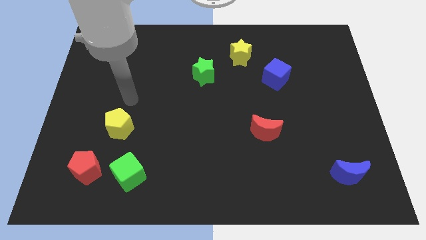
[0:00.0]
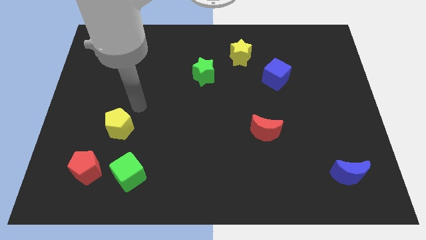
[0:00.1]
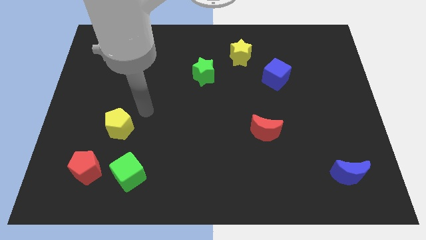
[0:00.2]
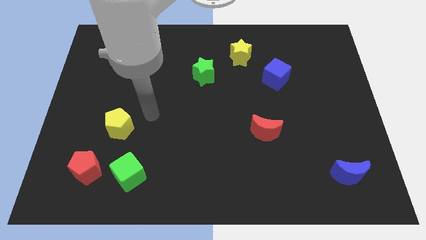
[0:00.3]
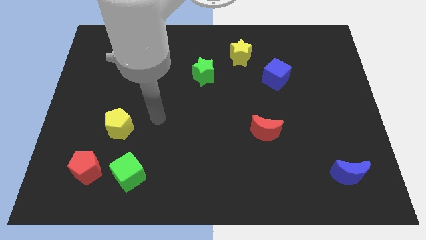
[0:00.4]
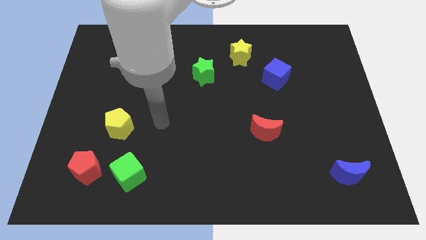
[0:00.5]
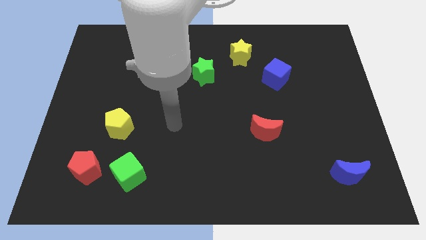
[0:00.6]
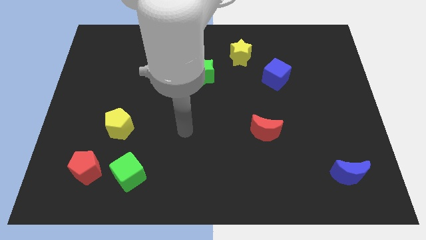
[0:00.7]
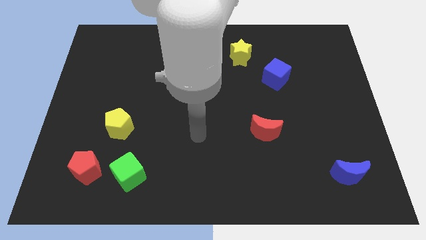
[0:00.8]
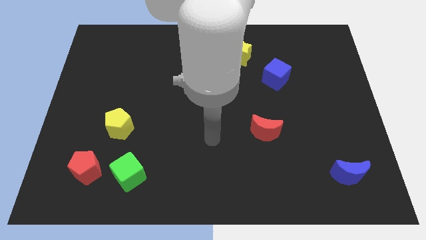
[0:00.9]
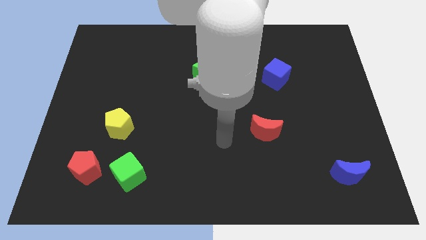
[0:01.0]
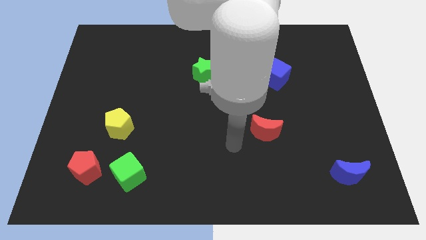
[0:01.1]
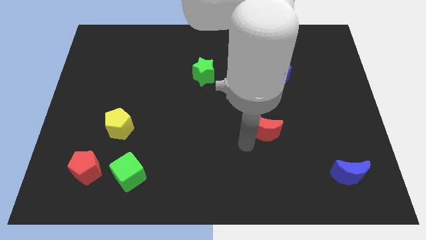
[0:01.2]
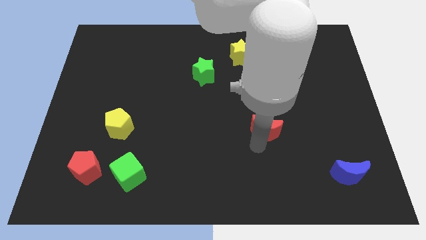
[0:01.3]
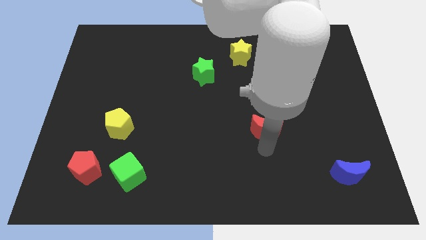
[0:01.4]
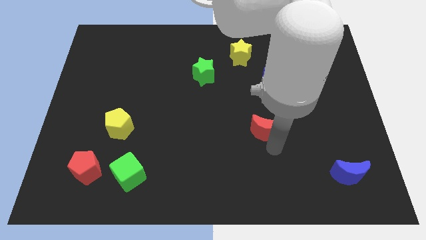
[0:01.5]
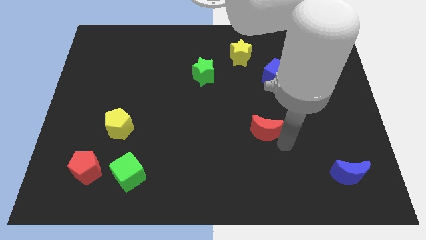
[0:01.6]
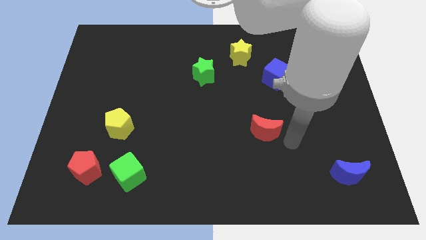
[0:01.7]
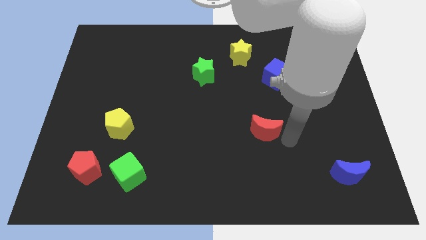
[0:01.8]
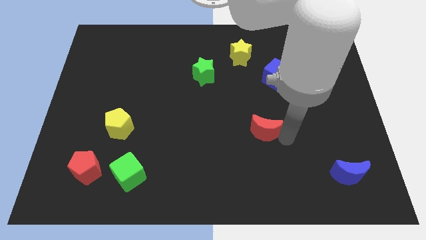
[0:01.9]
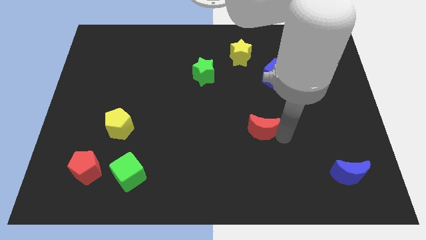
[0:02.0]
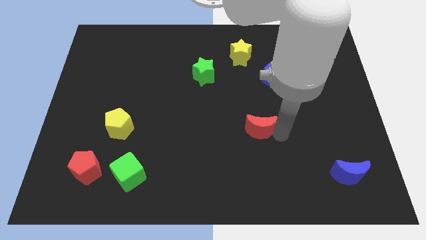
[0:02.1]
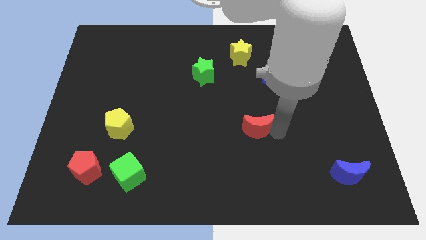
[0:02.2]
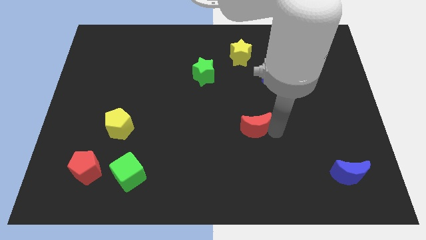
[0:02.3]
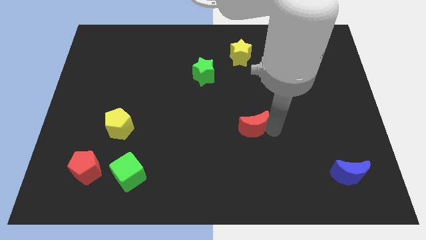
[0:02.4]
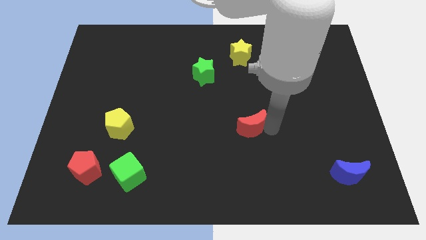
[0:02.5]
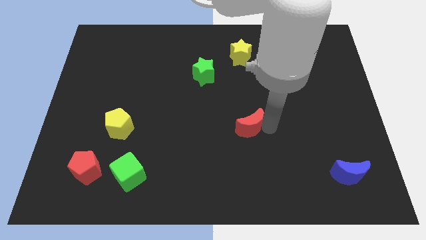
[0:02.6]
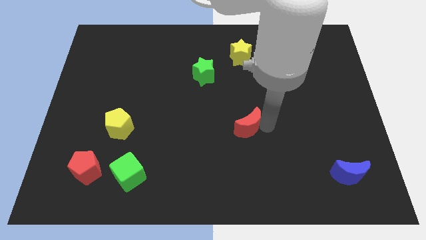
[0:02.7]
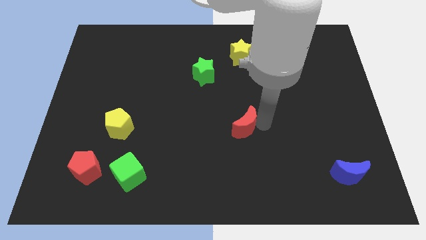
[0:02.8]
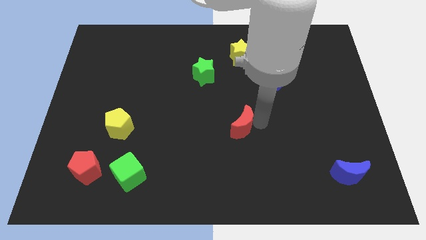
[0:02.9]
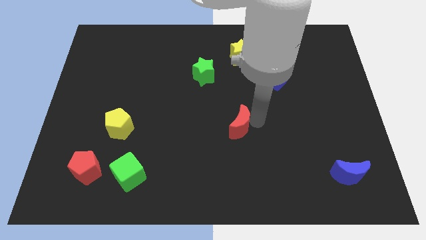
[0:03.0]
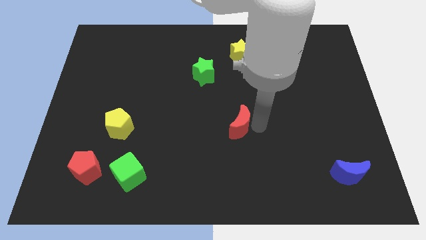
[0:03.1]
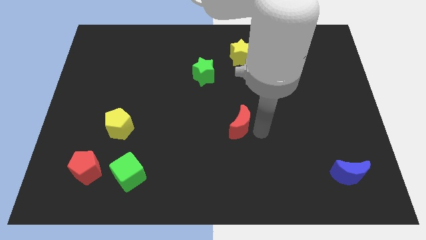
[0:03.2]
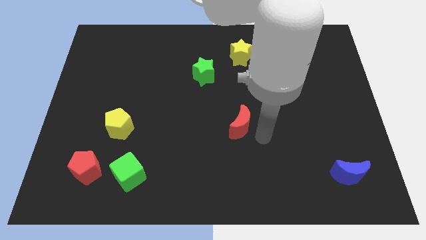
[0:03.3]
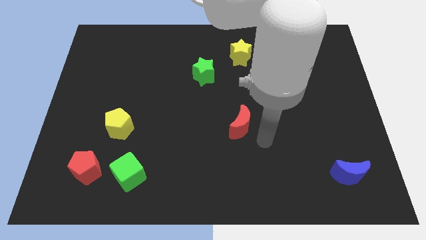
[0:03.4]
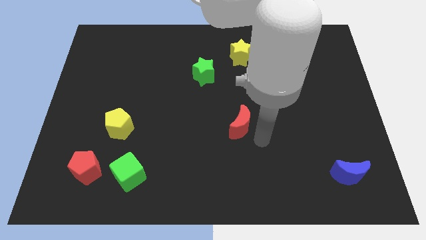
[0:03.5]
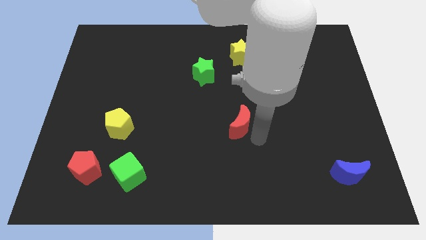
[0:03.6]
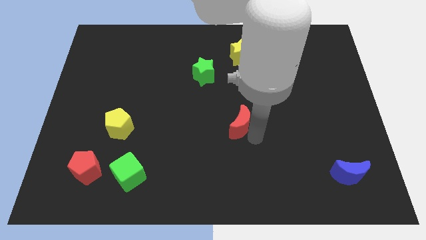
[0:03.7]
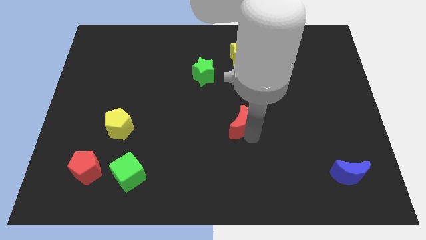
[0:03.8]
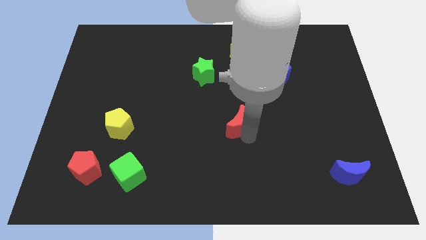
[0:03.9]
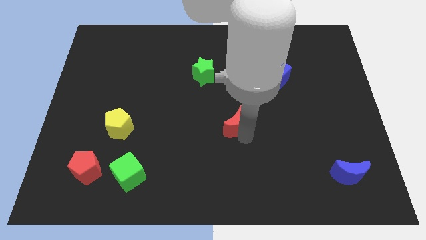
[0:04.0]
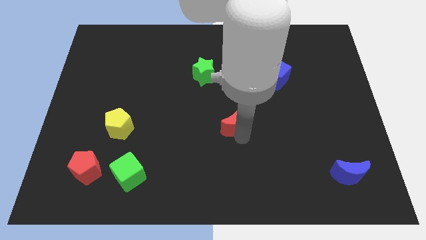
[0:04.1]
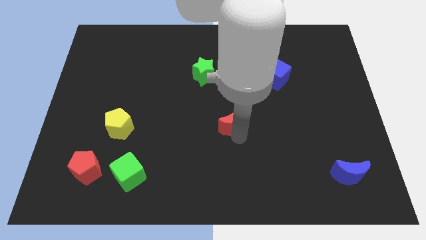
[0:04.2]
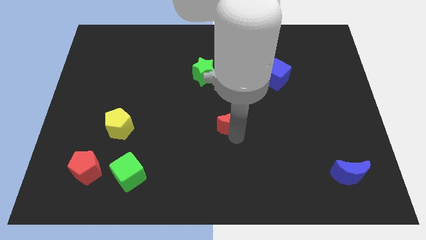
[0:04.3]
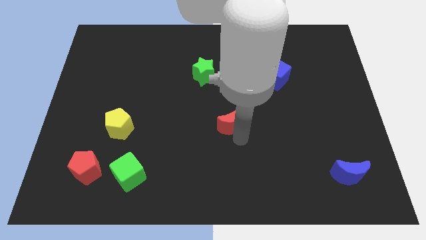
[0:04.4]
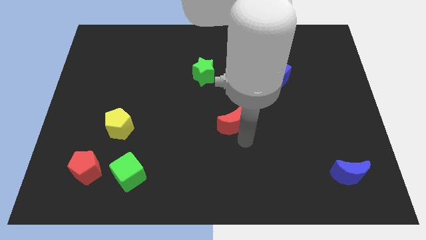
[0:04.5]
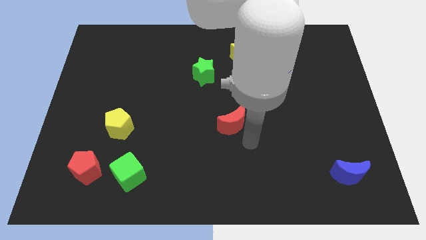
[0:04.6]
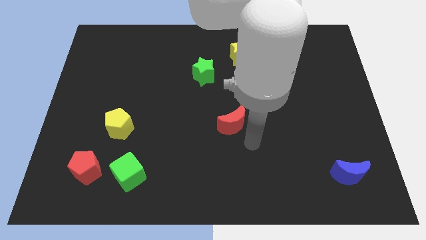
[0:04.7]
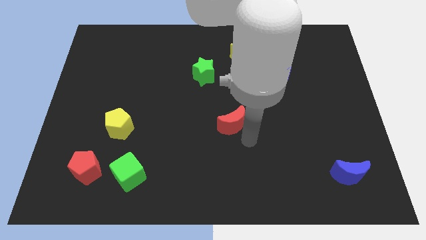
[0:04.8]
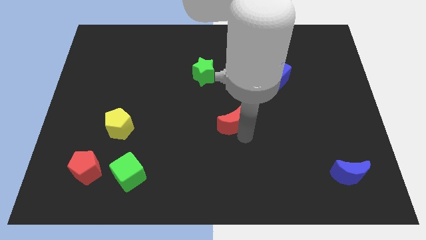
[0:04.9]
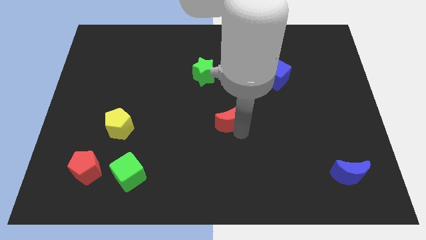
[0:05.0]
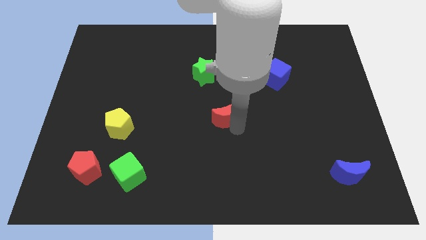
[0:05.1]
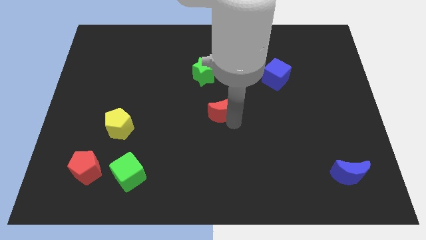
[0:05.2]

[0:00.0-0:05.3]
put the red moon to the bottom side of the green star
